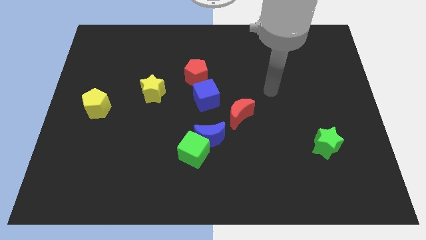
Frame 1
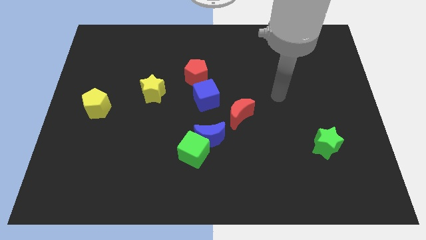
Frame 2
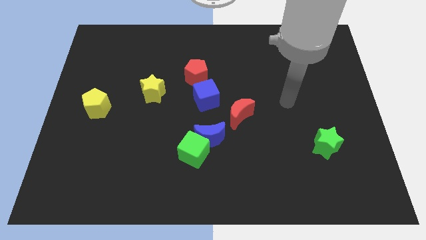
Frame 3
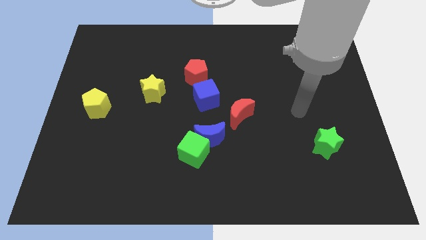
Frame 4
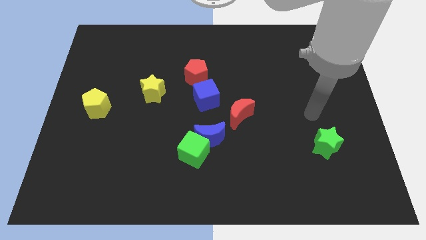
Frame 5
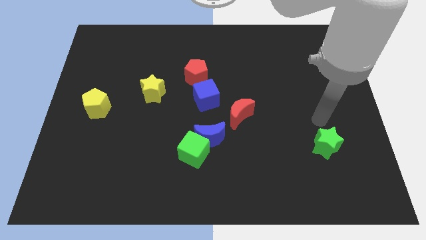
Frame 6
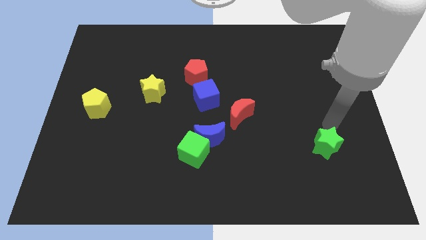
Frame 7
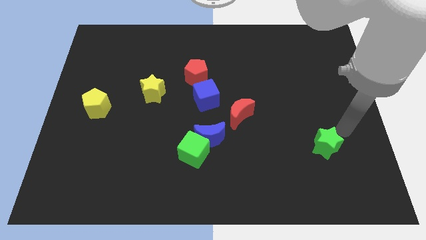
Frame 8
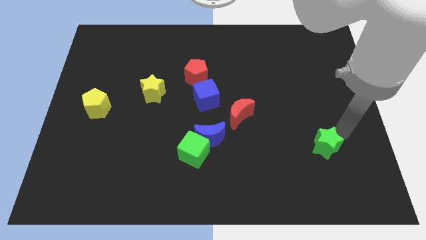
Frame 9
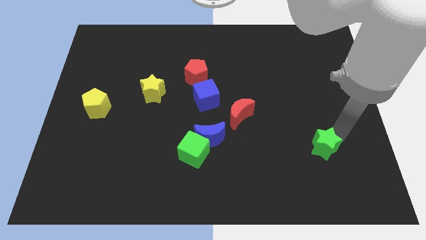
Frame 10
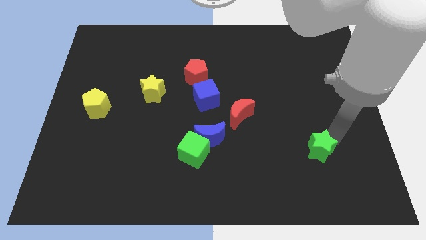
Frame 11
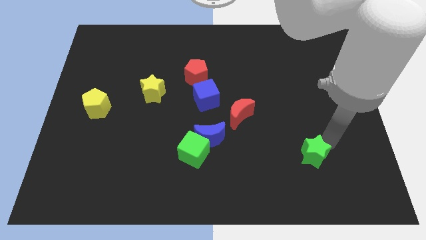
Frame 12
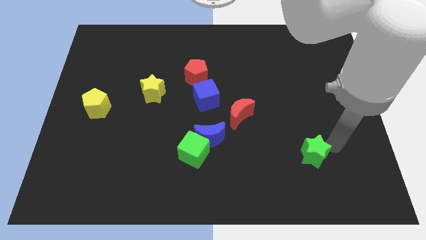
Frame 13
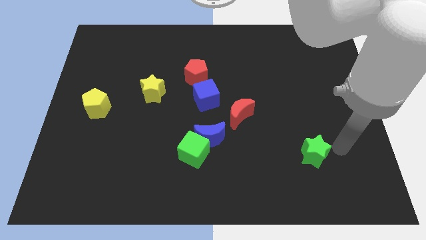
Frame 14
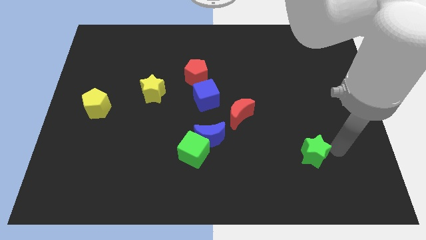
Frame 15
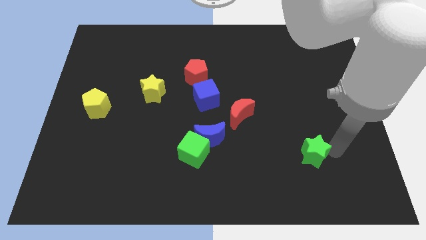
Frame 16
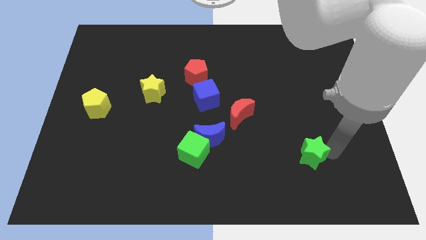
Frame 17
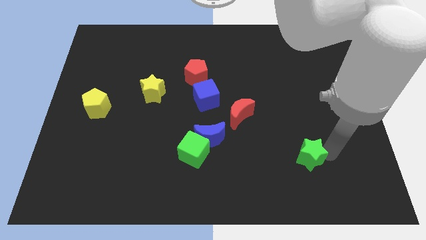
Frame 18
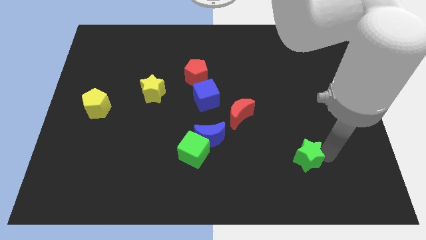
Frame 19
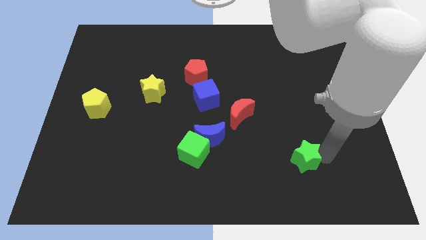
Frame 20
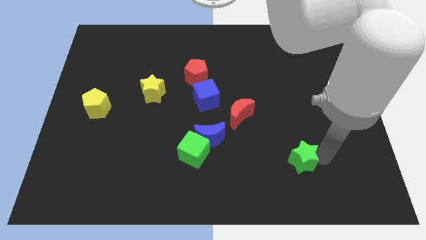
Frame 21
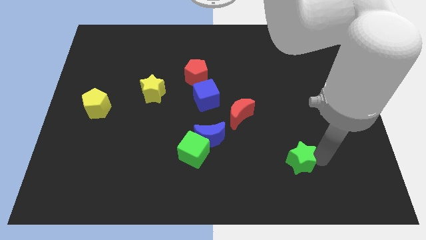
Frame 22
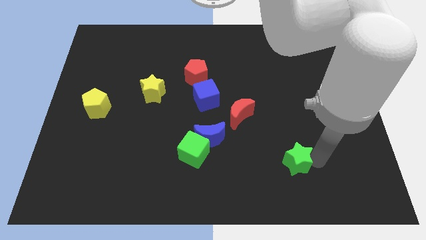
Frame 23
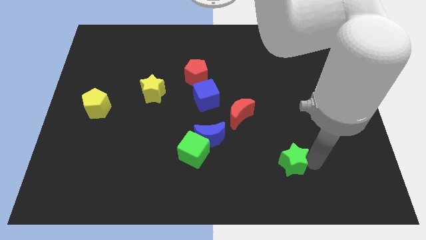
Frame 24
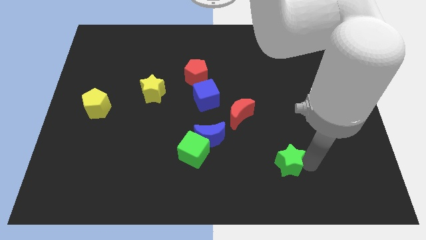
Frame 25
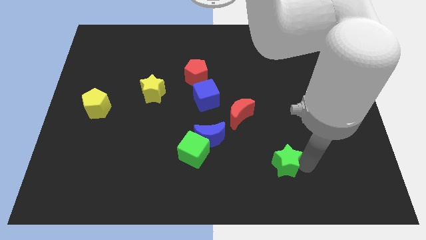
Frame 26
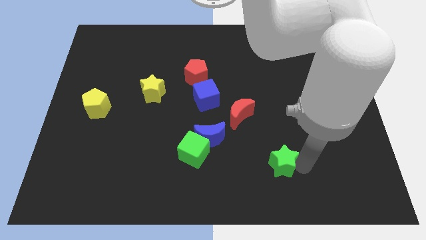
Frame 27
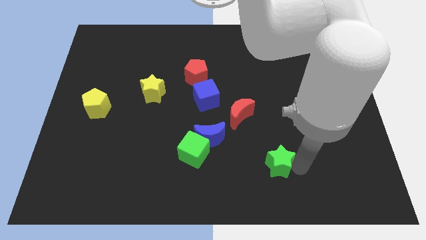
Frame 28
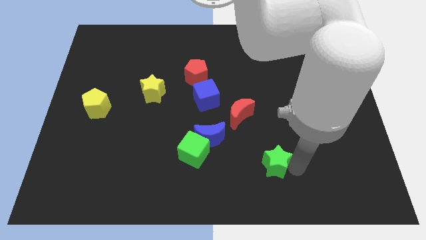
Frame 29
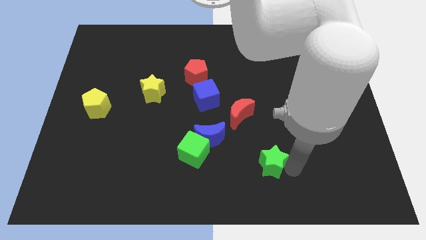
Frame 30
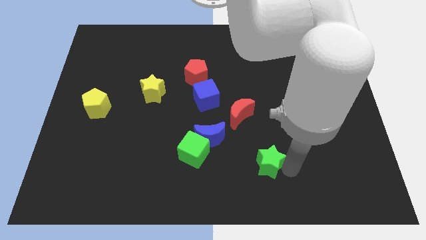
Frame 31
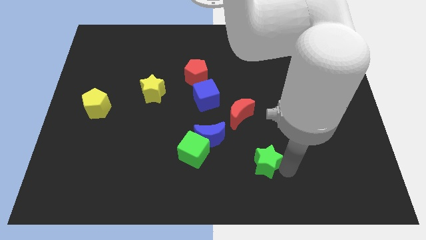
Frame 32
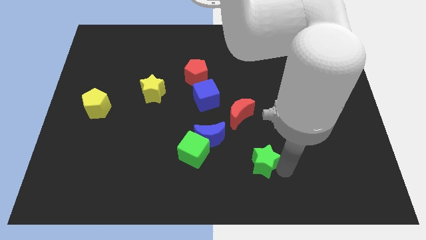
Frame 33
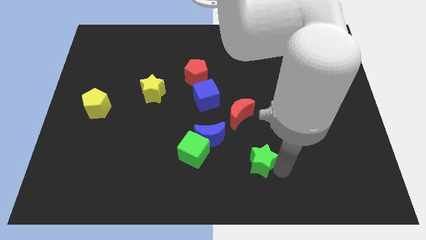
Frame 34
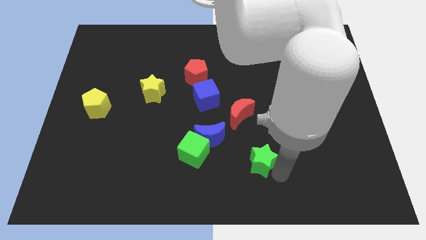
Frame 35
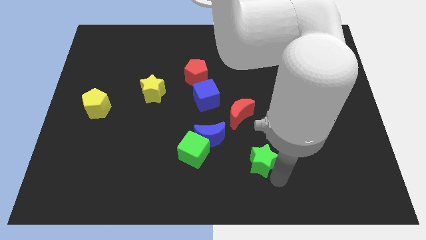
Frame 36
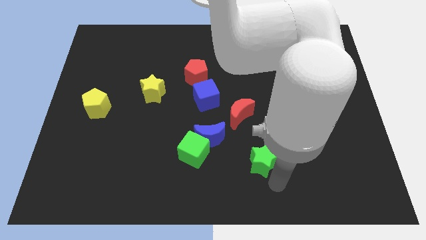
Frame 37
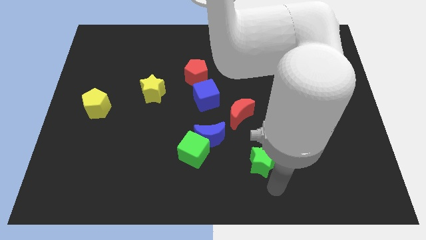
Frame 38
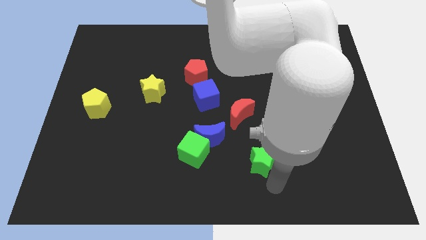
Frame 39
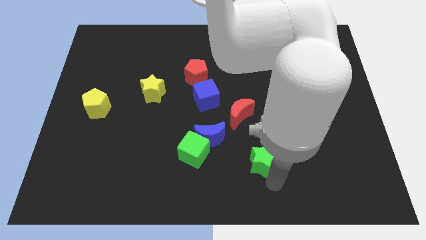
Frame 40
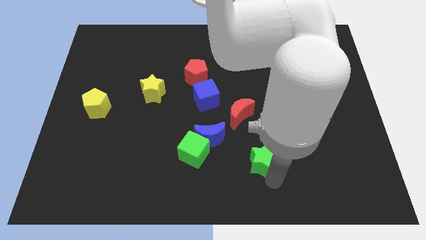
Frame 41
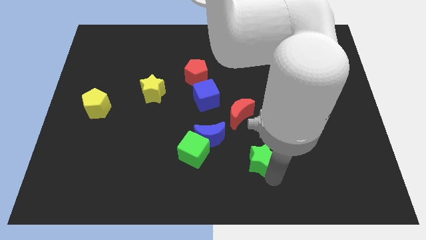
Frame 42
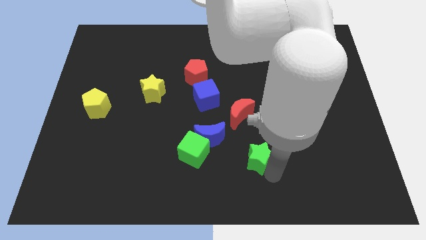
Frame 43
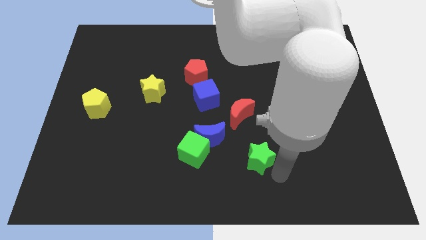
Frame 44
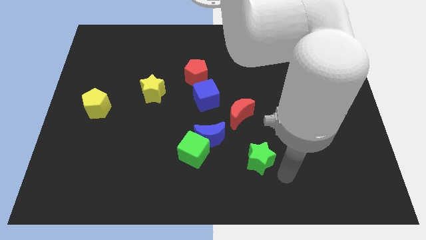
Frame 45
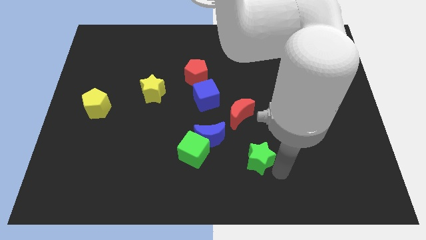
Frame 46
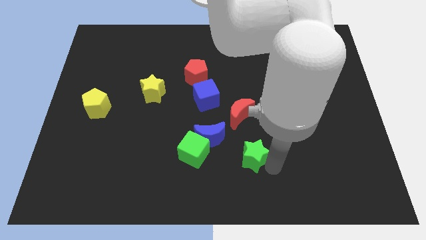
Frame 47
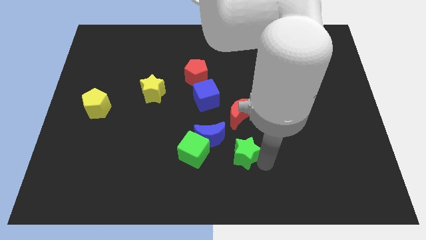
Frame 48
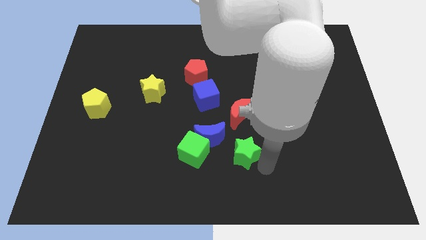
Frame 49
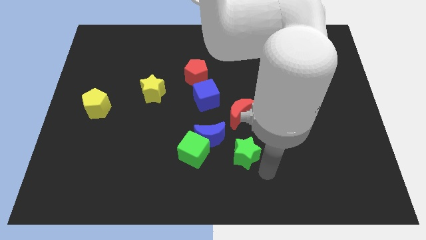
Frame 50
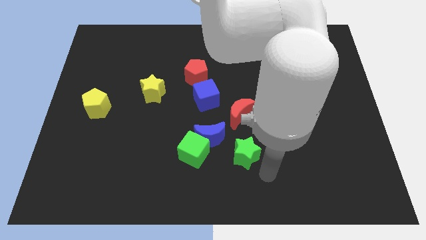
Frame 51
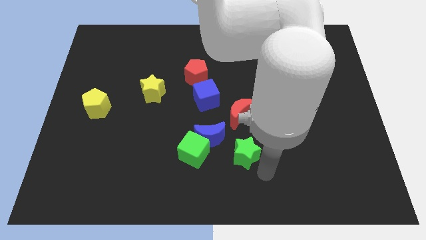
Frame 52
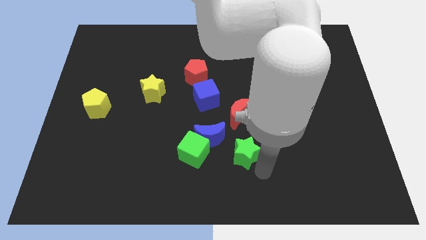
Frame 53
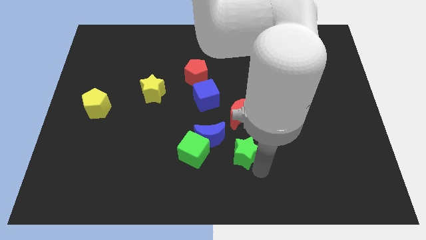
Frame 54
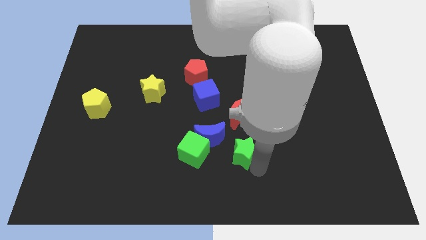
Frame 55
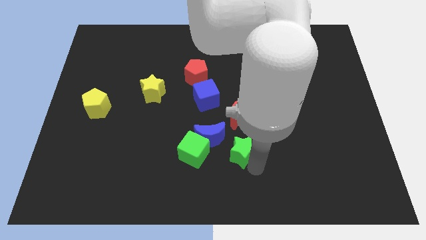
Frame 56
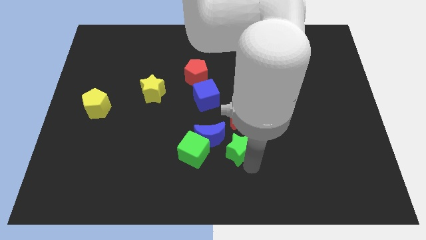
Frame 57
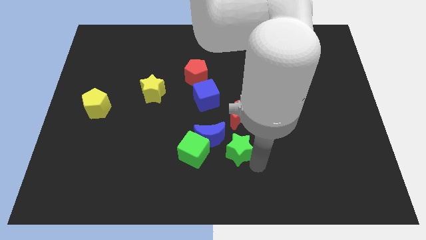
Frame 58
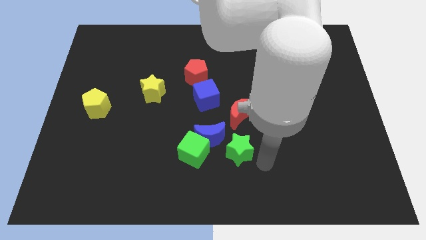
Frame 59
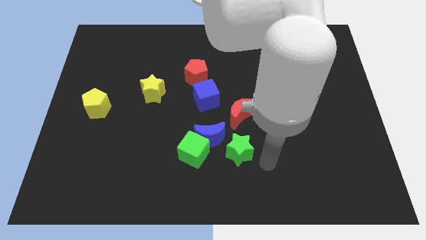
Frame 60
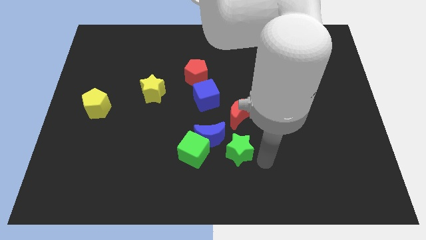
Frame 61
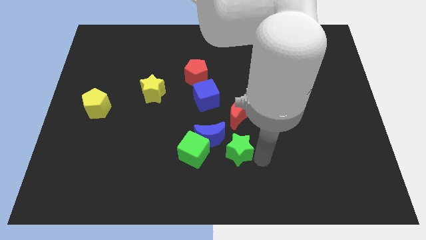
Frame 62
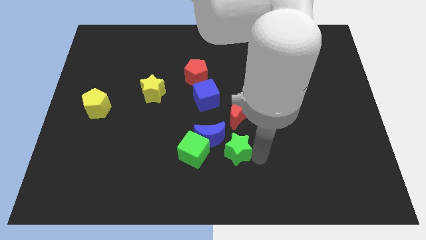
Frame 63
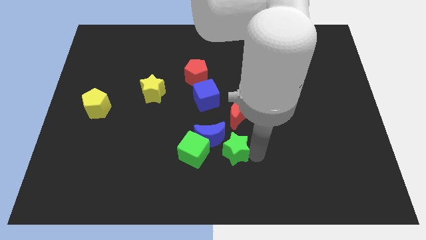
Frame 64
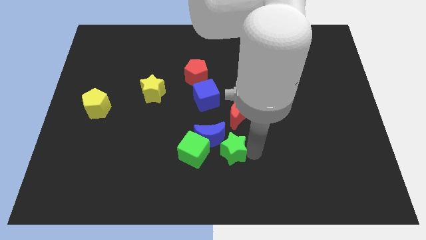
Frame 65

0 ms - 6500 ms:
put the green star next to the blue moon
